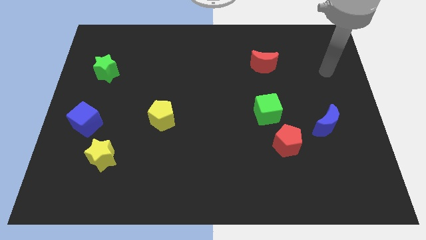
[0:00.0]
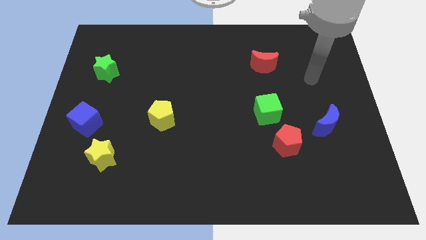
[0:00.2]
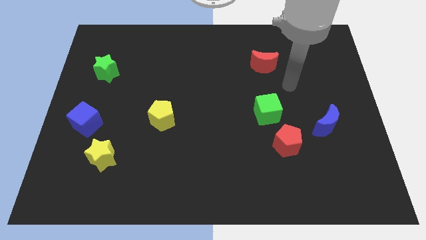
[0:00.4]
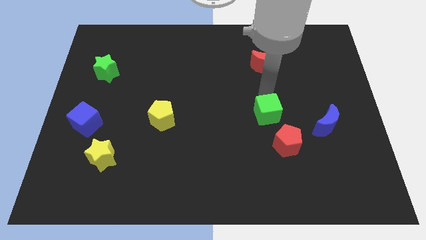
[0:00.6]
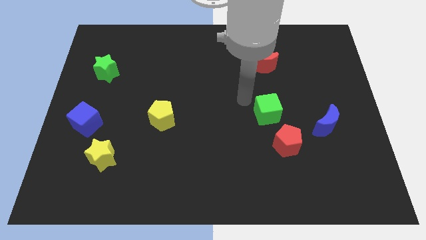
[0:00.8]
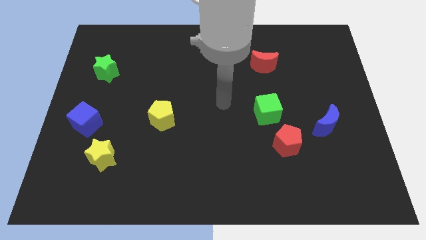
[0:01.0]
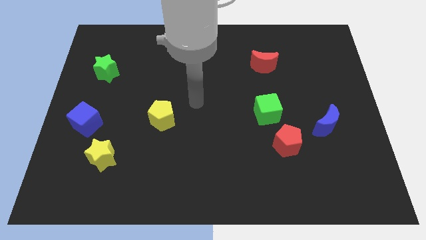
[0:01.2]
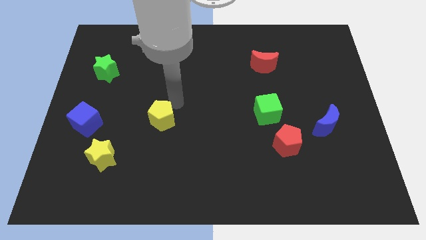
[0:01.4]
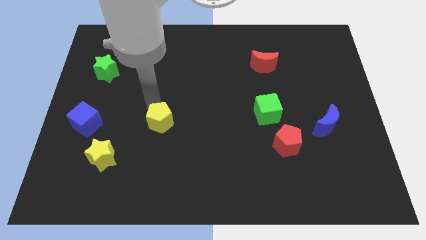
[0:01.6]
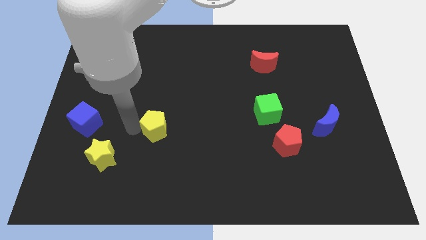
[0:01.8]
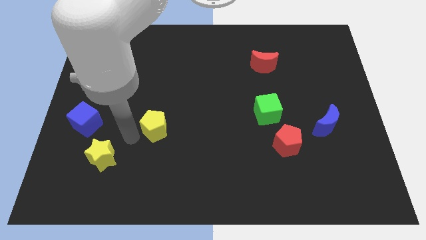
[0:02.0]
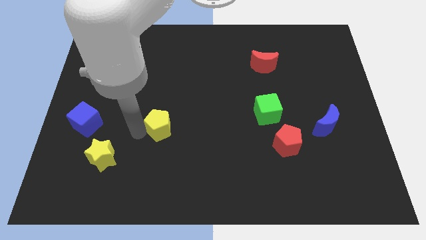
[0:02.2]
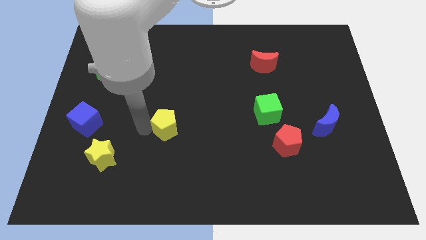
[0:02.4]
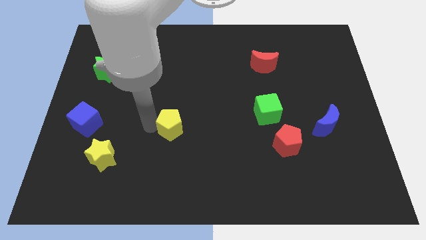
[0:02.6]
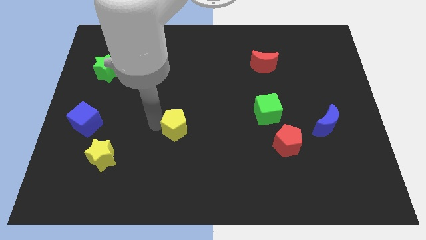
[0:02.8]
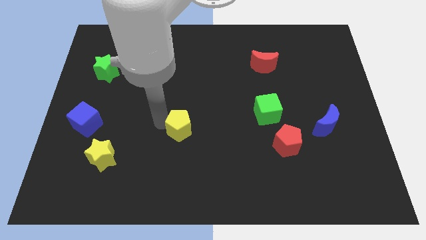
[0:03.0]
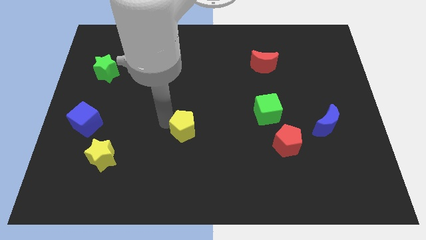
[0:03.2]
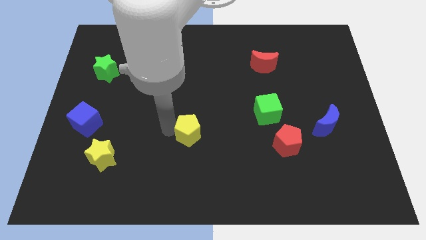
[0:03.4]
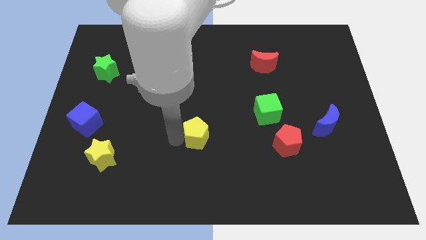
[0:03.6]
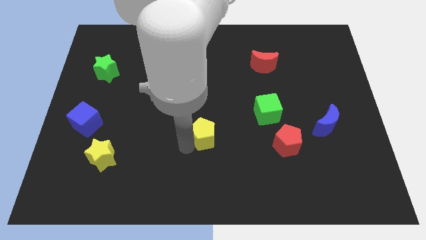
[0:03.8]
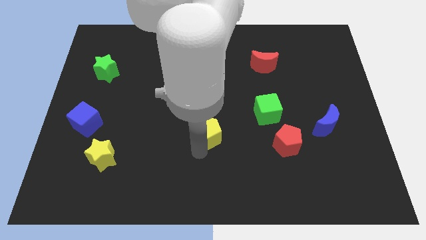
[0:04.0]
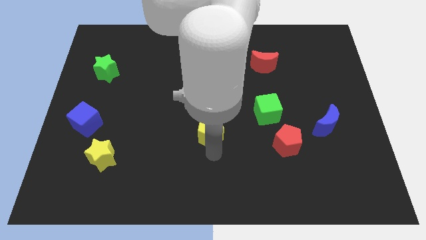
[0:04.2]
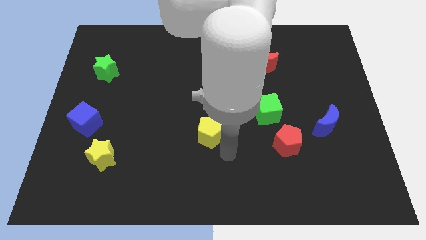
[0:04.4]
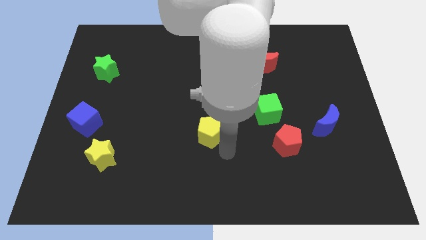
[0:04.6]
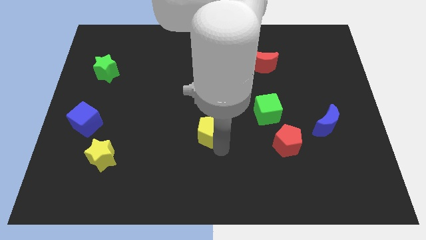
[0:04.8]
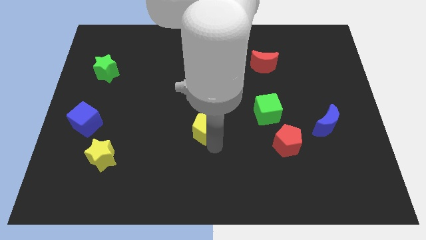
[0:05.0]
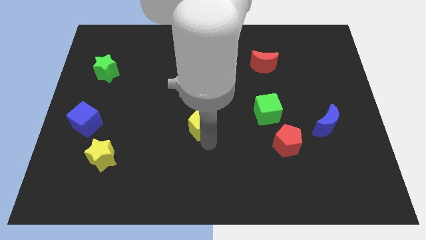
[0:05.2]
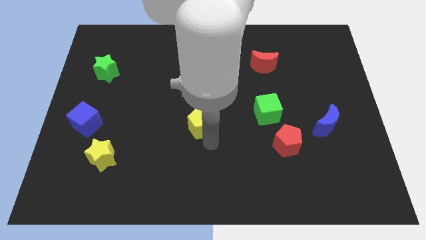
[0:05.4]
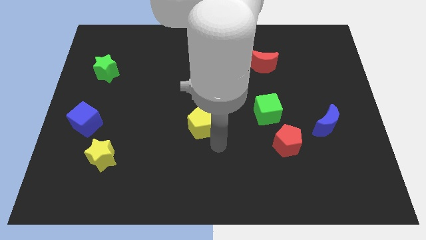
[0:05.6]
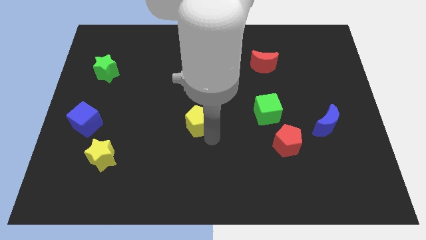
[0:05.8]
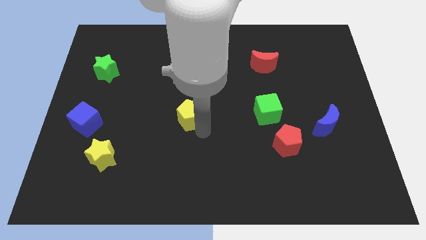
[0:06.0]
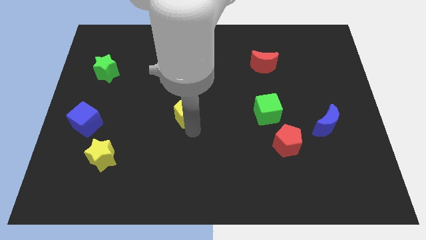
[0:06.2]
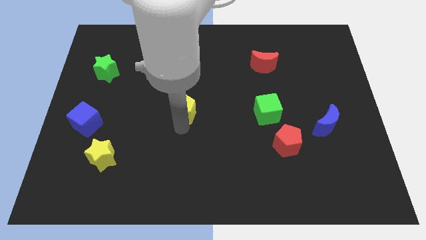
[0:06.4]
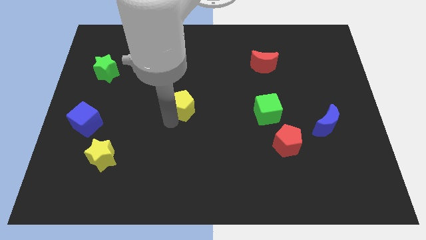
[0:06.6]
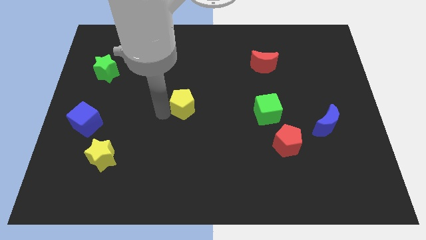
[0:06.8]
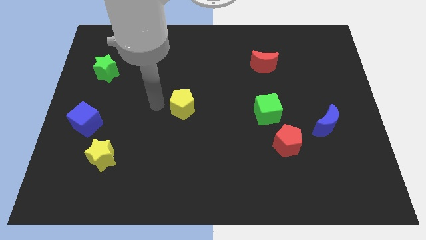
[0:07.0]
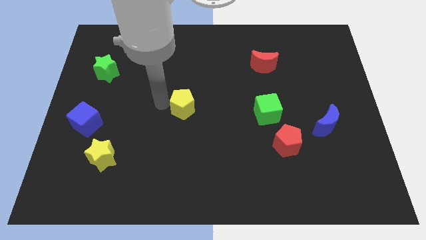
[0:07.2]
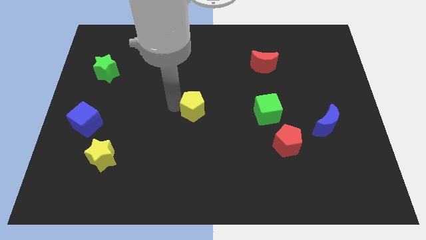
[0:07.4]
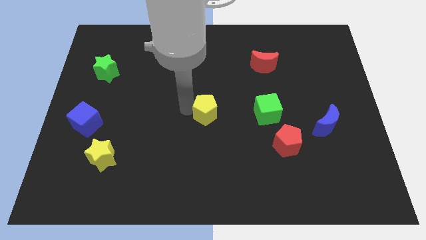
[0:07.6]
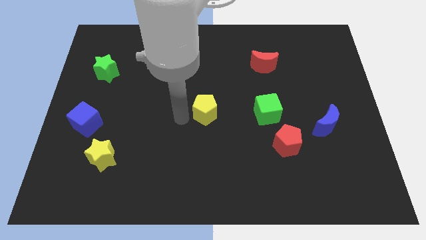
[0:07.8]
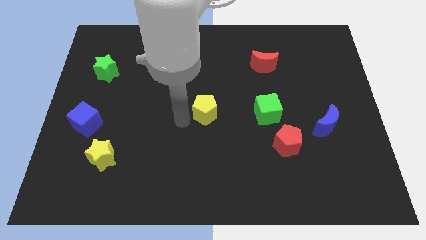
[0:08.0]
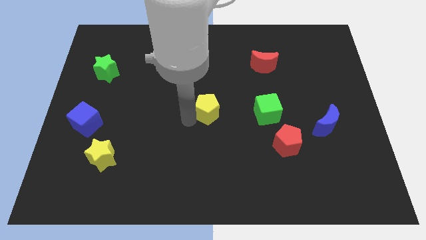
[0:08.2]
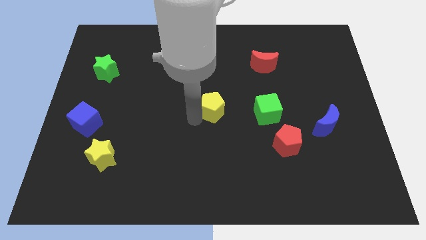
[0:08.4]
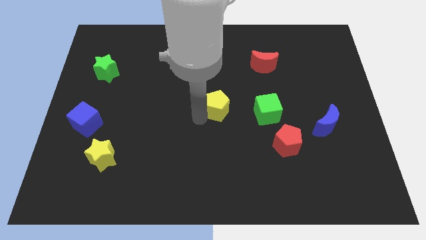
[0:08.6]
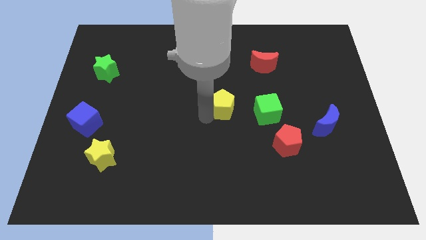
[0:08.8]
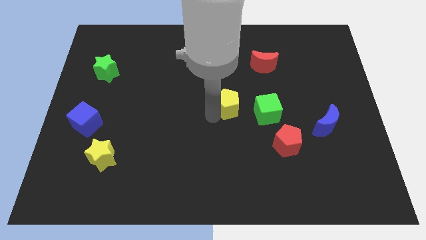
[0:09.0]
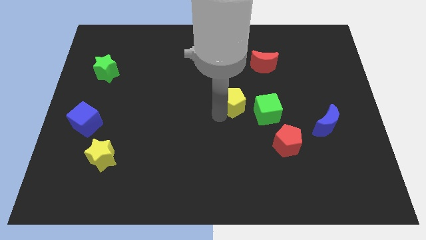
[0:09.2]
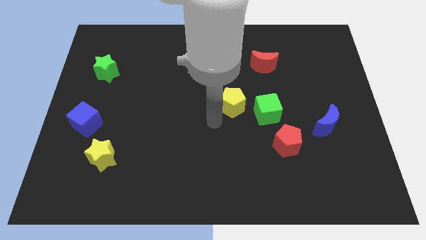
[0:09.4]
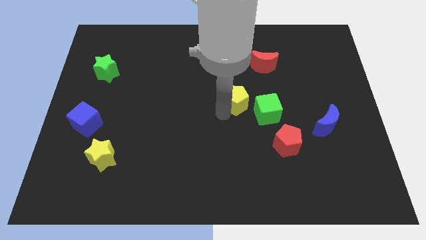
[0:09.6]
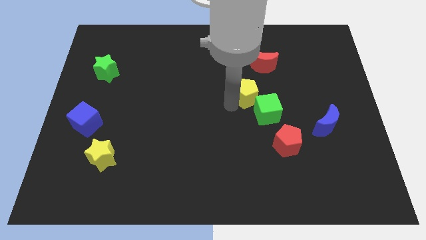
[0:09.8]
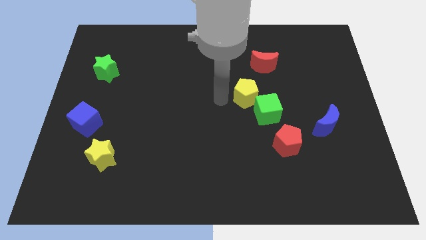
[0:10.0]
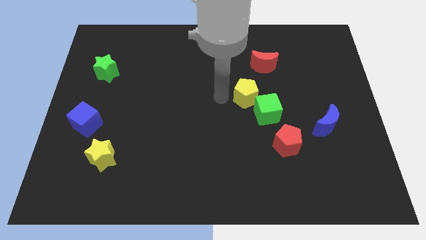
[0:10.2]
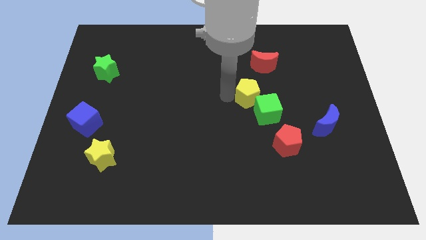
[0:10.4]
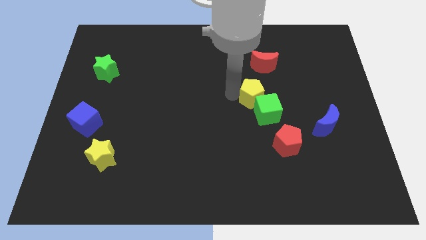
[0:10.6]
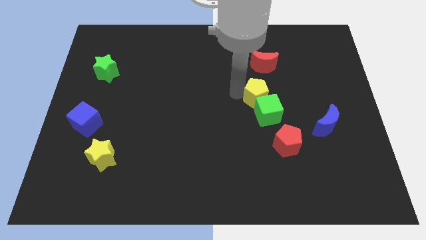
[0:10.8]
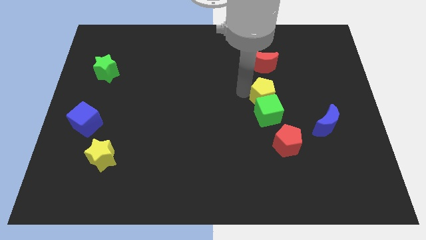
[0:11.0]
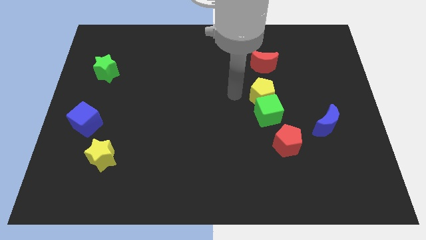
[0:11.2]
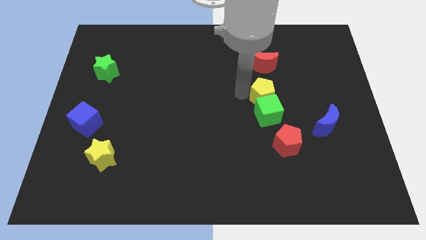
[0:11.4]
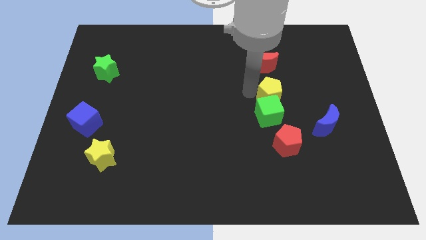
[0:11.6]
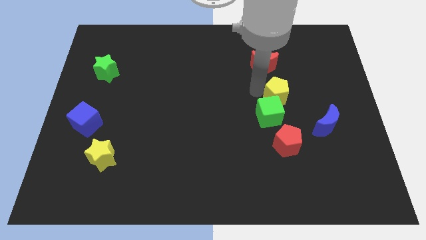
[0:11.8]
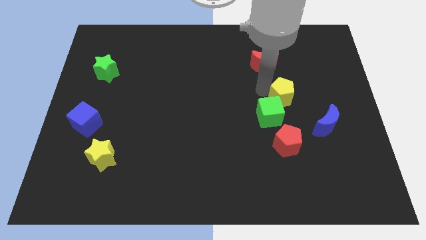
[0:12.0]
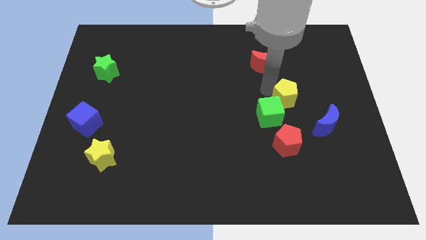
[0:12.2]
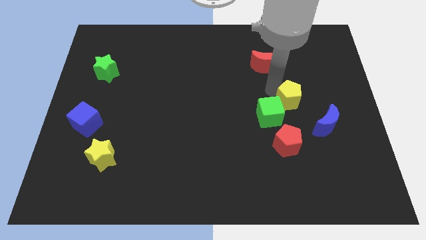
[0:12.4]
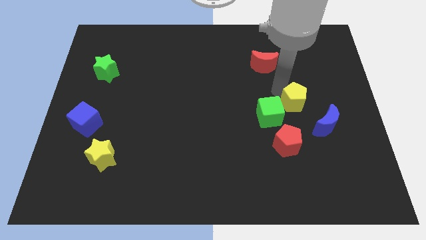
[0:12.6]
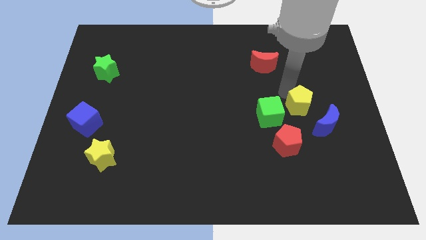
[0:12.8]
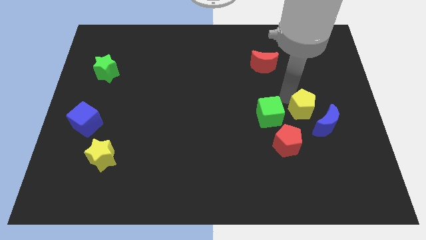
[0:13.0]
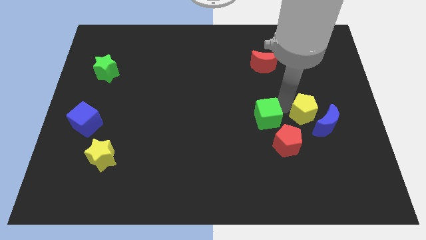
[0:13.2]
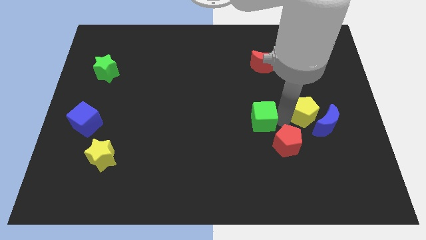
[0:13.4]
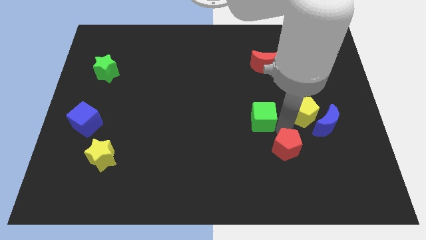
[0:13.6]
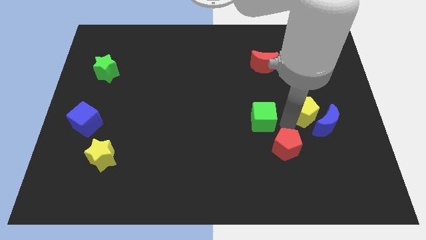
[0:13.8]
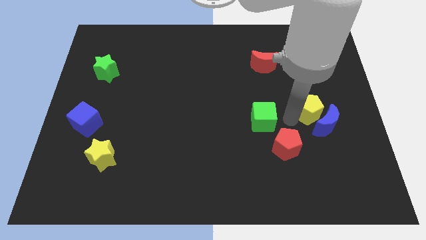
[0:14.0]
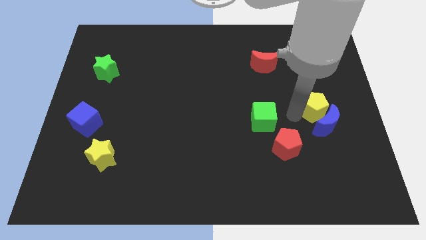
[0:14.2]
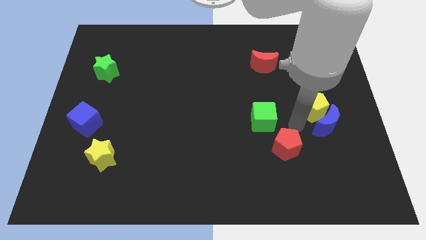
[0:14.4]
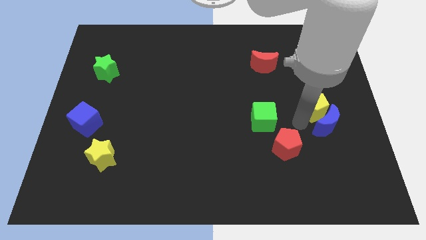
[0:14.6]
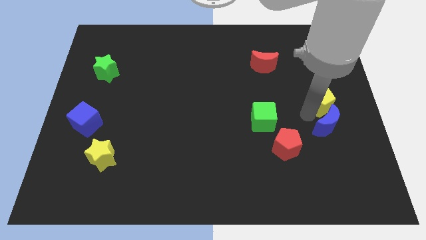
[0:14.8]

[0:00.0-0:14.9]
move the yellow pentagon to the right side of the board
